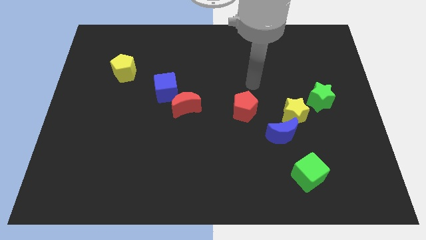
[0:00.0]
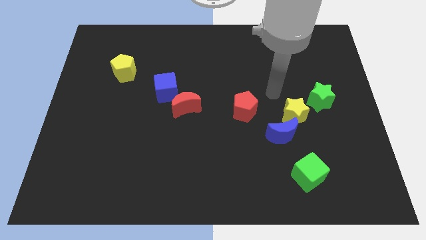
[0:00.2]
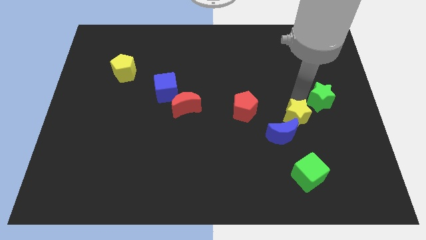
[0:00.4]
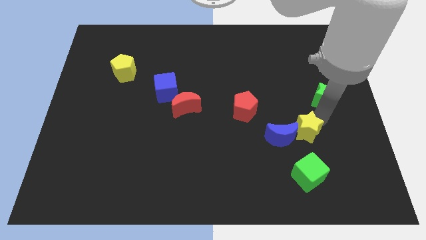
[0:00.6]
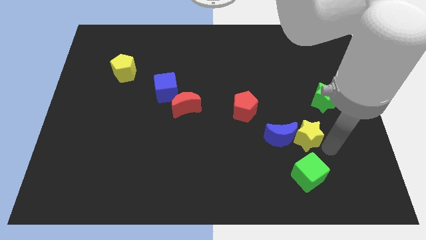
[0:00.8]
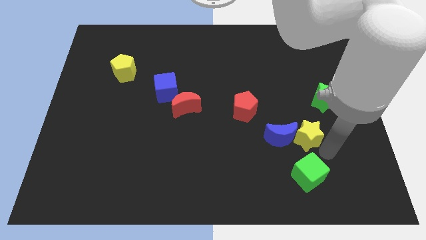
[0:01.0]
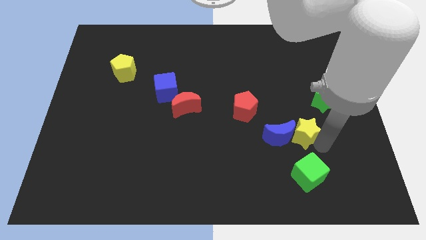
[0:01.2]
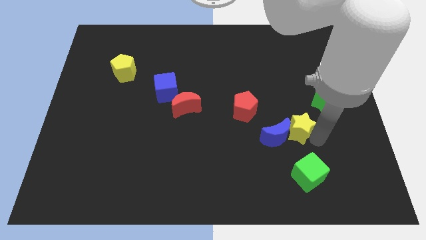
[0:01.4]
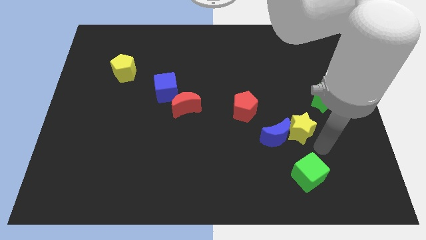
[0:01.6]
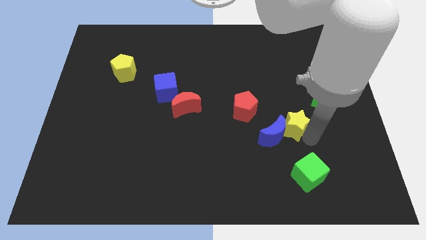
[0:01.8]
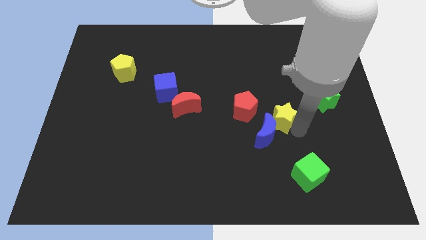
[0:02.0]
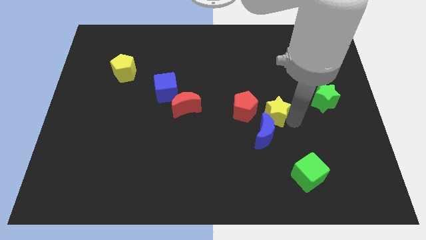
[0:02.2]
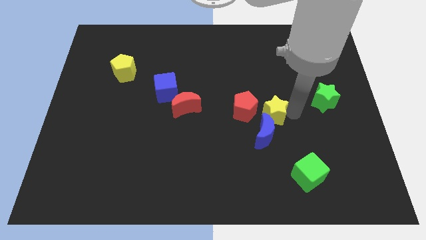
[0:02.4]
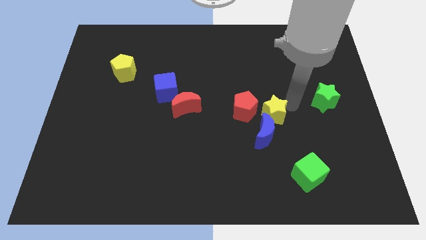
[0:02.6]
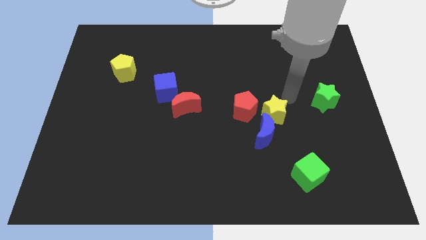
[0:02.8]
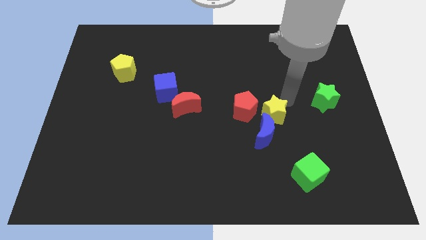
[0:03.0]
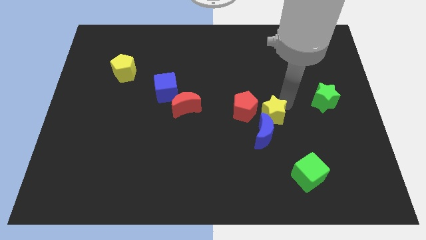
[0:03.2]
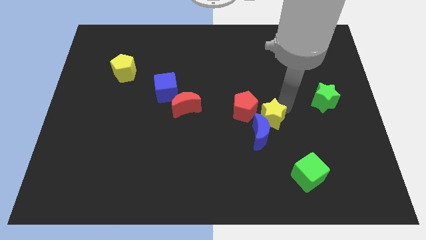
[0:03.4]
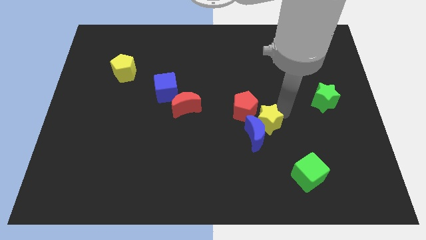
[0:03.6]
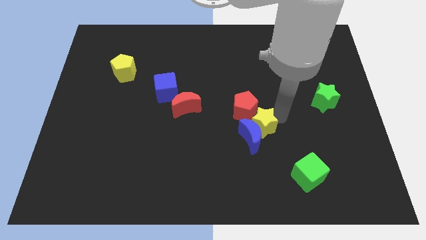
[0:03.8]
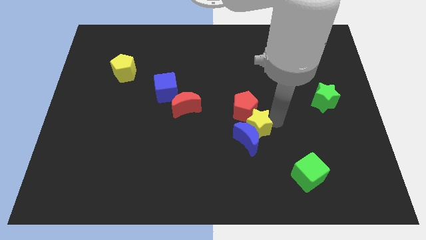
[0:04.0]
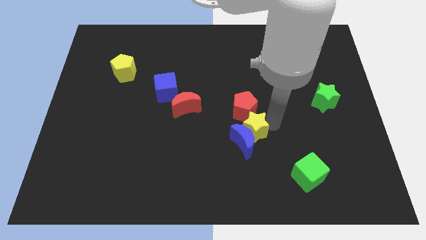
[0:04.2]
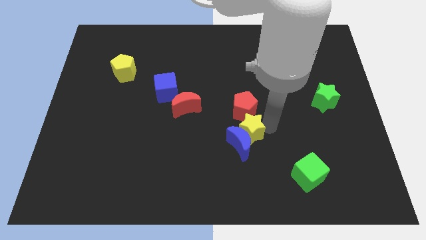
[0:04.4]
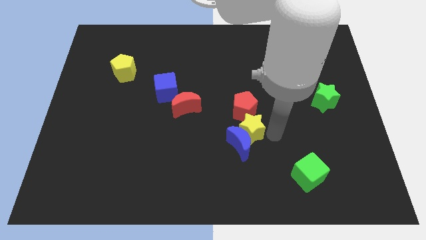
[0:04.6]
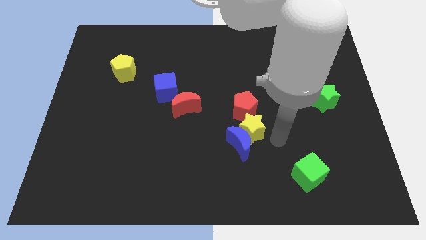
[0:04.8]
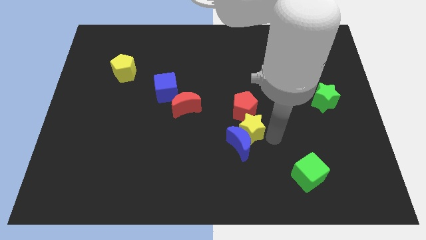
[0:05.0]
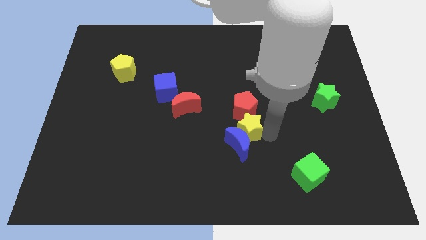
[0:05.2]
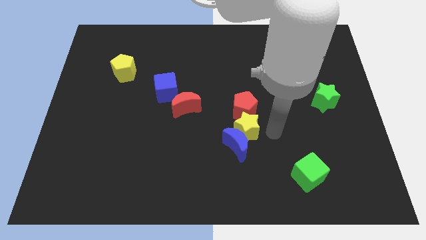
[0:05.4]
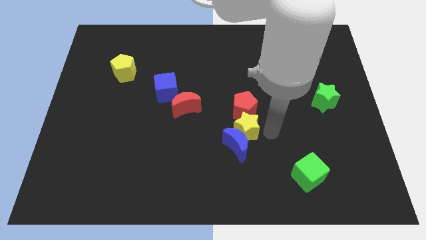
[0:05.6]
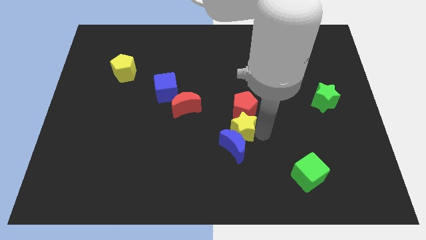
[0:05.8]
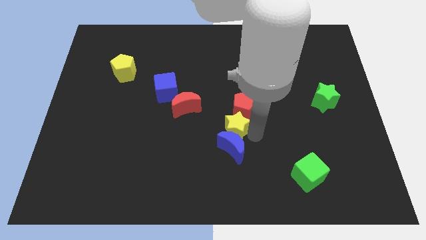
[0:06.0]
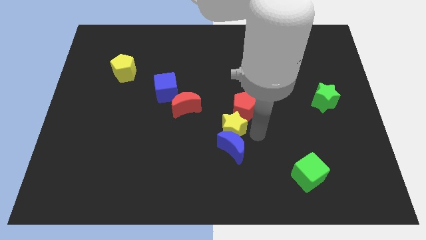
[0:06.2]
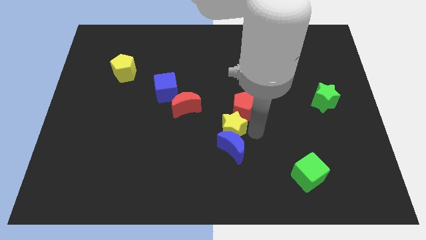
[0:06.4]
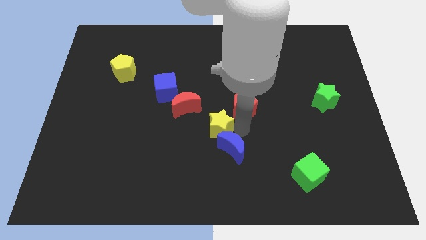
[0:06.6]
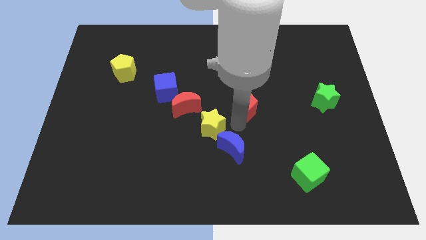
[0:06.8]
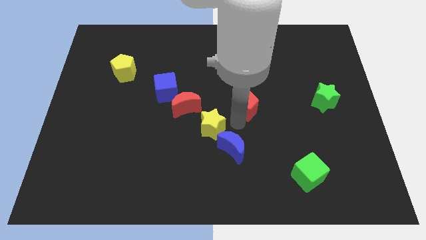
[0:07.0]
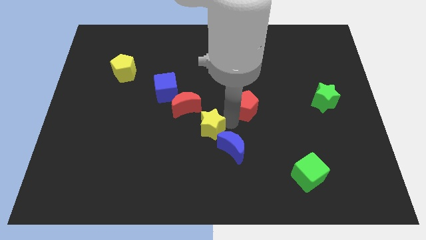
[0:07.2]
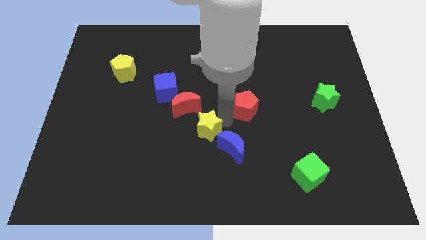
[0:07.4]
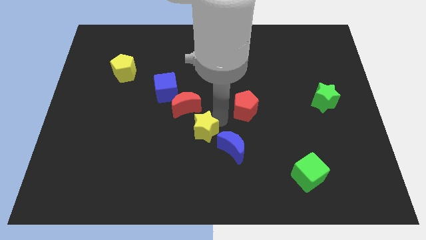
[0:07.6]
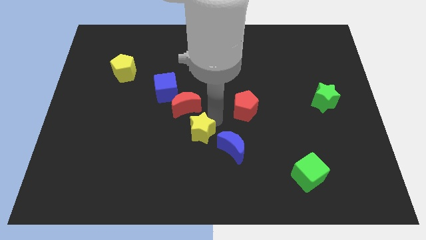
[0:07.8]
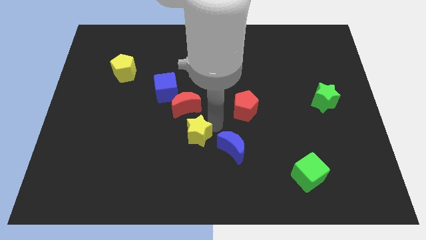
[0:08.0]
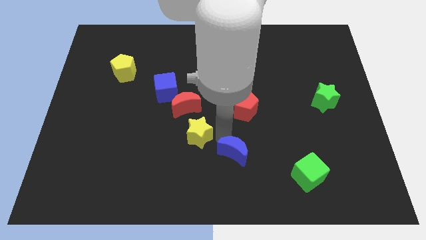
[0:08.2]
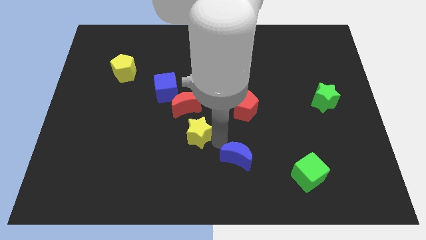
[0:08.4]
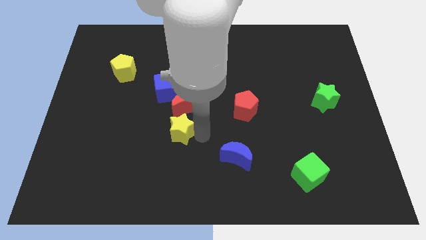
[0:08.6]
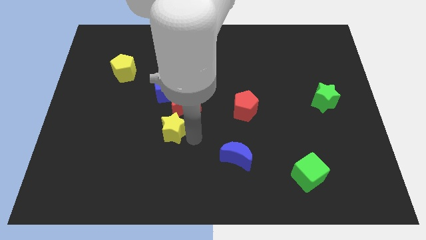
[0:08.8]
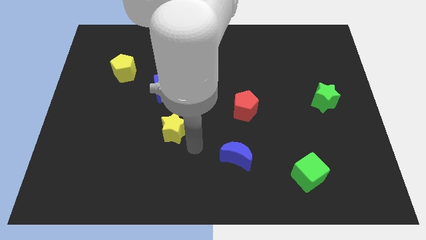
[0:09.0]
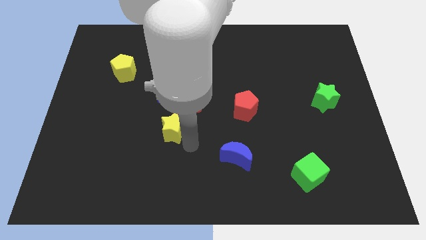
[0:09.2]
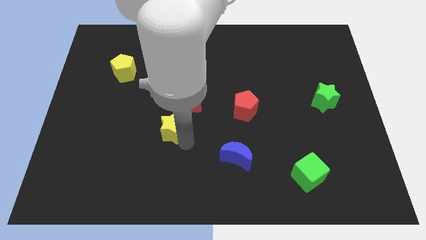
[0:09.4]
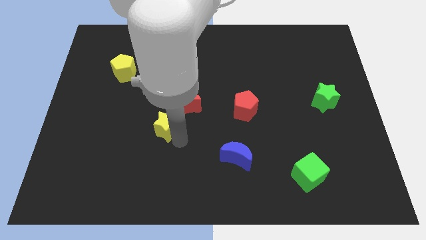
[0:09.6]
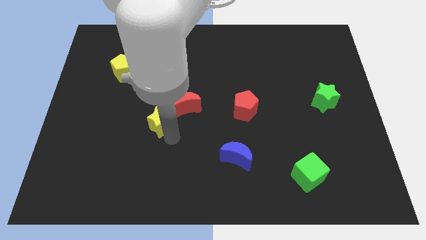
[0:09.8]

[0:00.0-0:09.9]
move the yellow star to the left side of the red moon

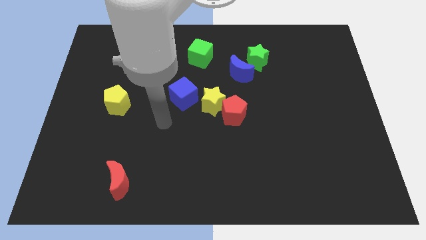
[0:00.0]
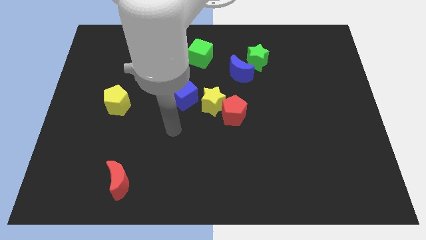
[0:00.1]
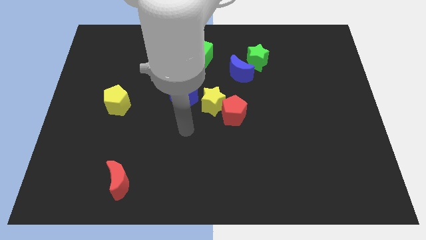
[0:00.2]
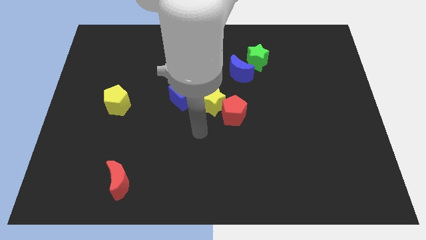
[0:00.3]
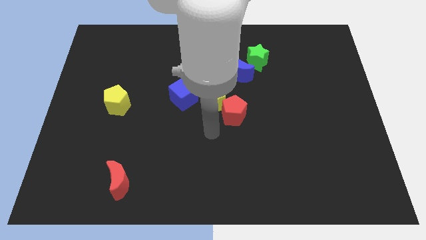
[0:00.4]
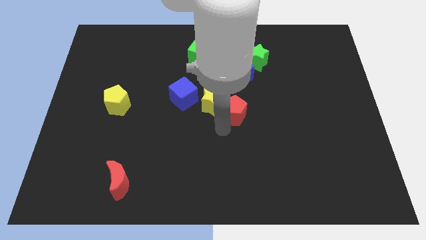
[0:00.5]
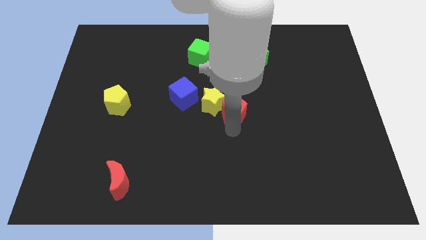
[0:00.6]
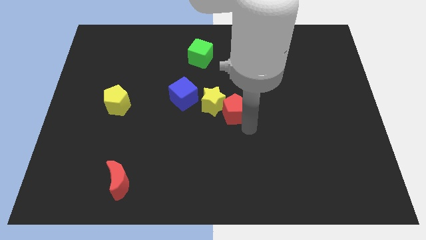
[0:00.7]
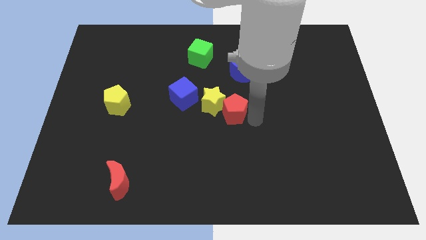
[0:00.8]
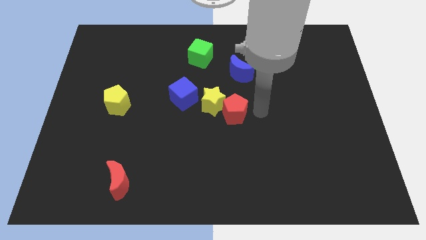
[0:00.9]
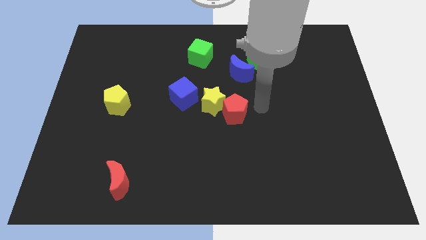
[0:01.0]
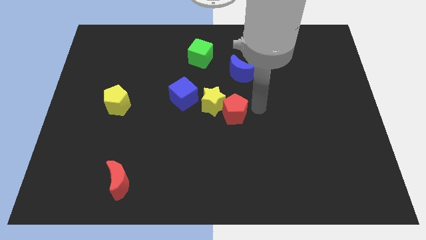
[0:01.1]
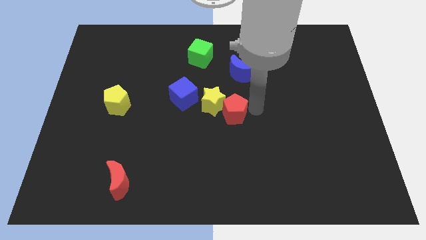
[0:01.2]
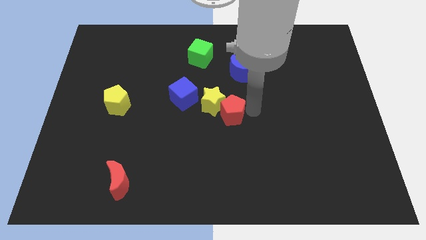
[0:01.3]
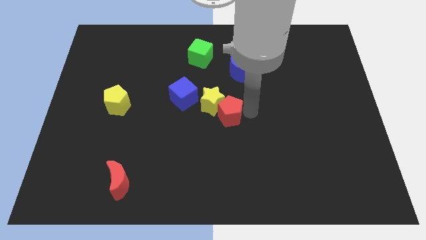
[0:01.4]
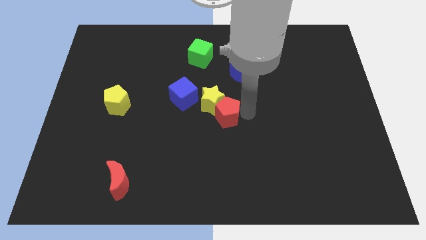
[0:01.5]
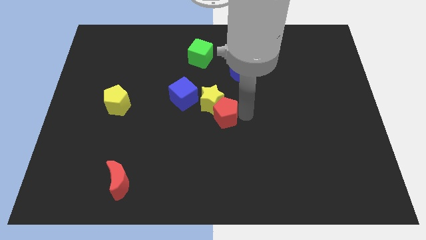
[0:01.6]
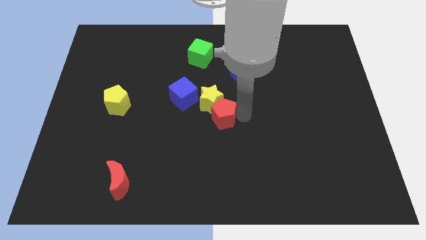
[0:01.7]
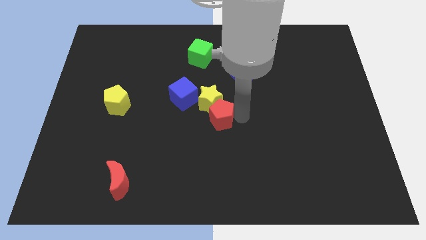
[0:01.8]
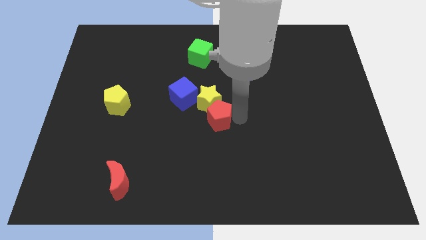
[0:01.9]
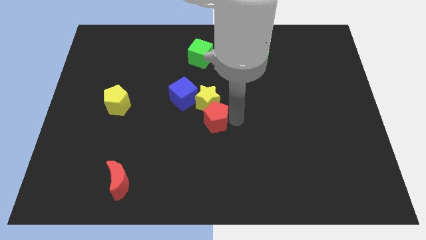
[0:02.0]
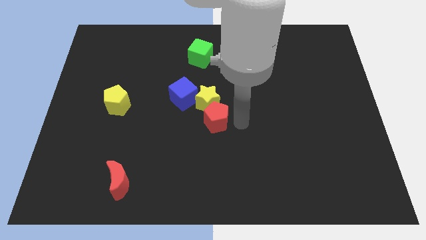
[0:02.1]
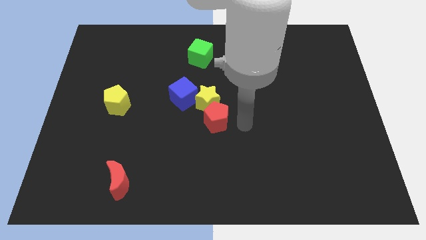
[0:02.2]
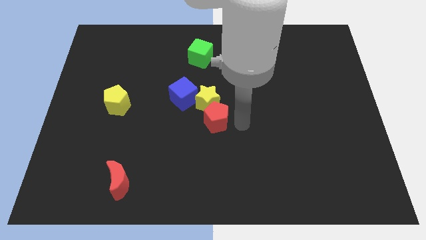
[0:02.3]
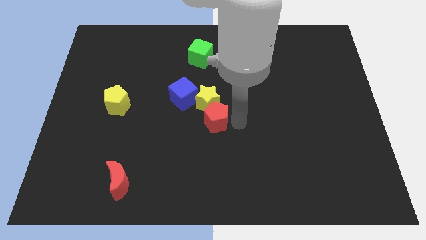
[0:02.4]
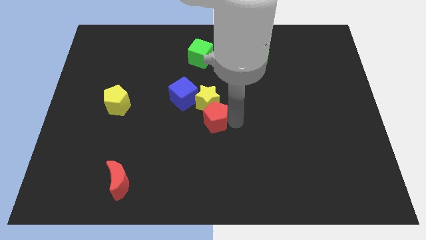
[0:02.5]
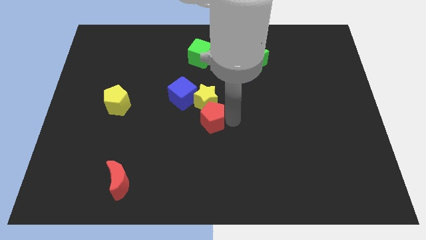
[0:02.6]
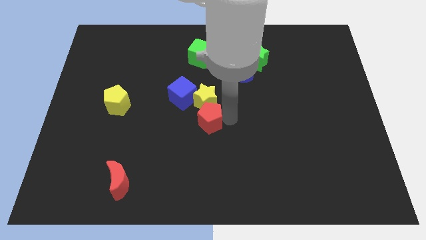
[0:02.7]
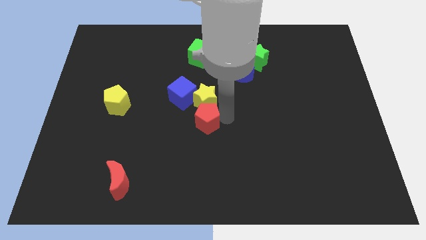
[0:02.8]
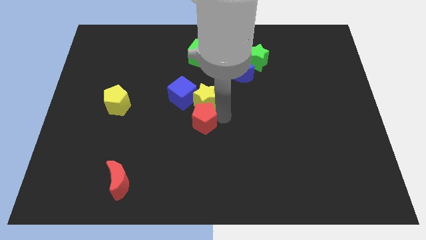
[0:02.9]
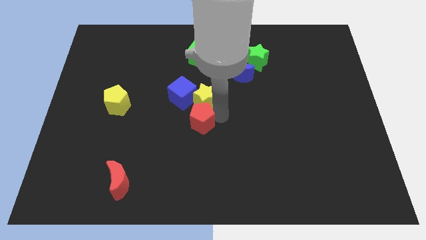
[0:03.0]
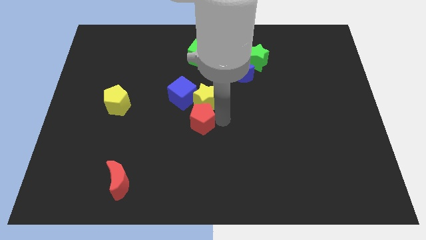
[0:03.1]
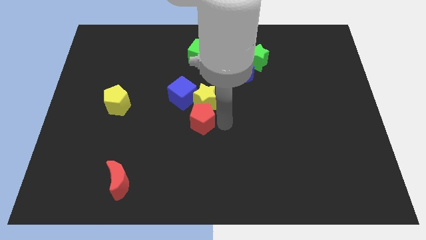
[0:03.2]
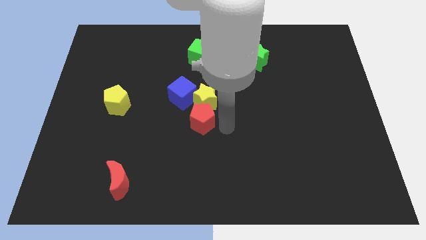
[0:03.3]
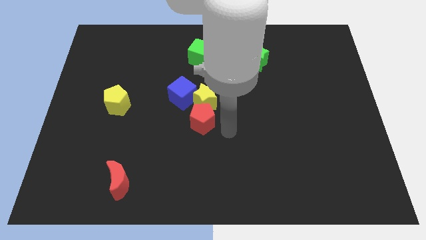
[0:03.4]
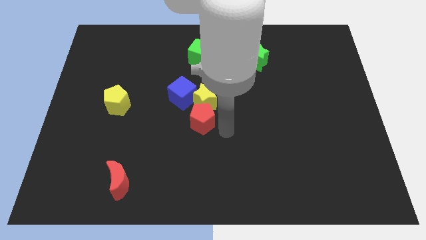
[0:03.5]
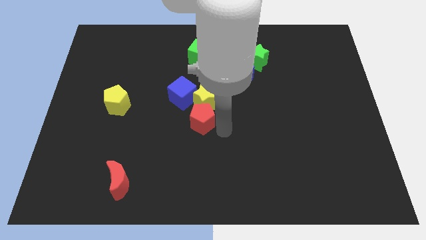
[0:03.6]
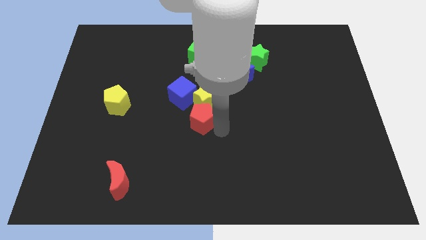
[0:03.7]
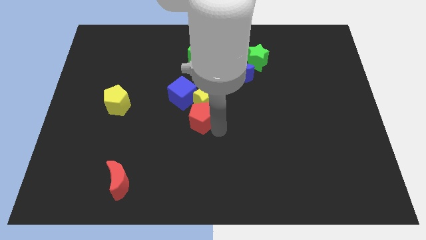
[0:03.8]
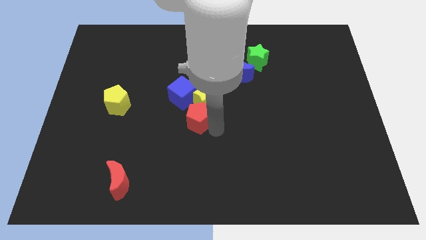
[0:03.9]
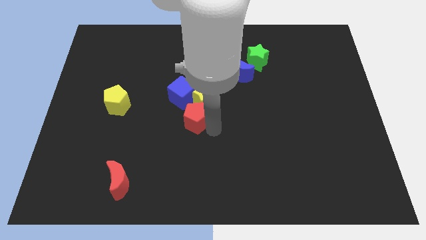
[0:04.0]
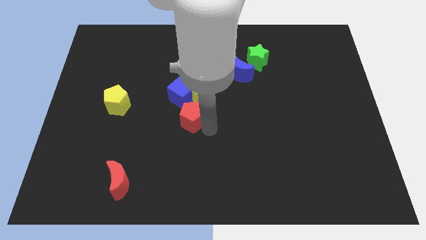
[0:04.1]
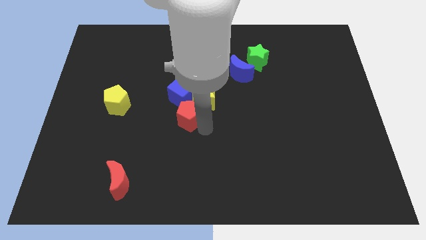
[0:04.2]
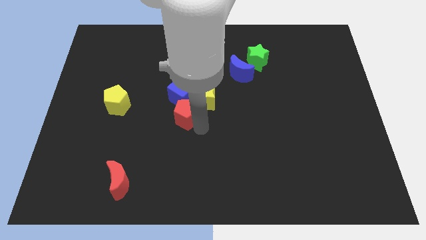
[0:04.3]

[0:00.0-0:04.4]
move the red pentagon to the left side of the yellow star
